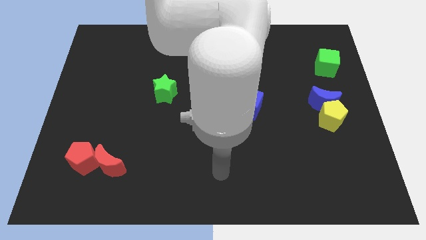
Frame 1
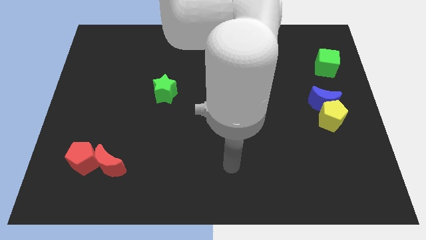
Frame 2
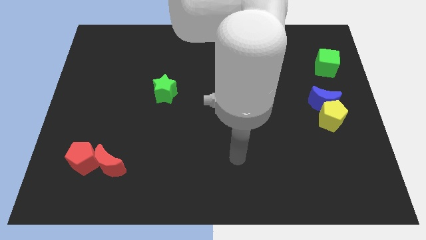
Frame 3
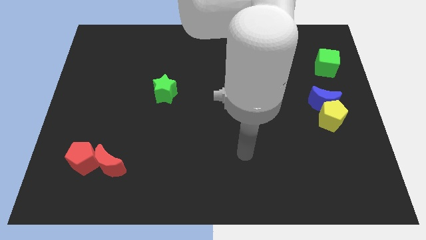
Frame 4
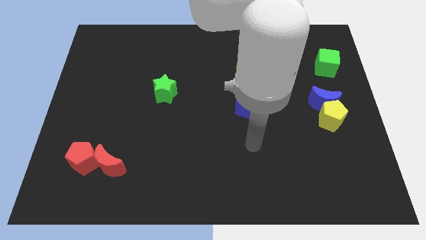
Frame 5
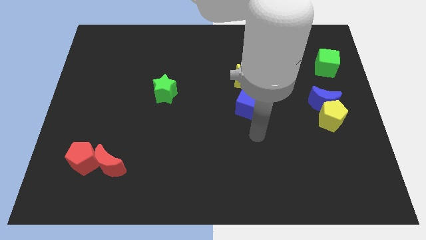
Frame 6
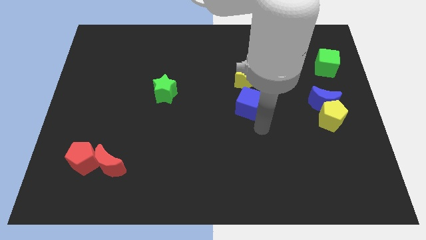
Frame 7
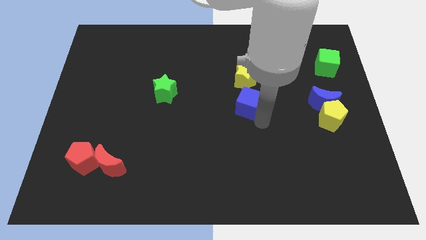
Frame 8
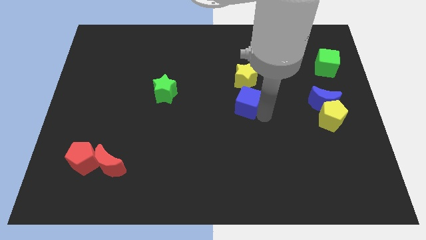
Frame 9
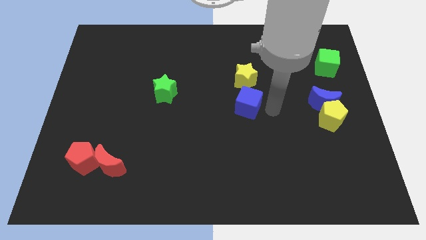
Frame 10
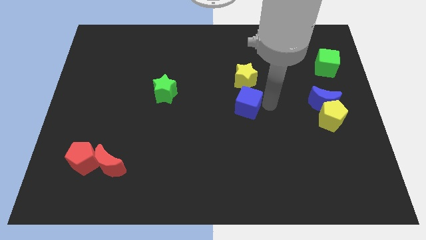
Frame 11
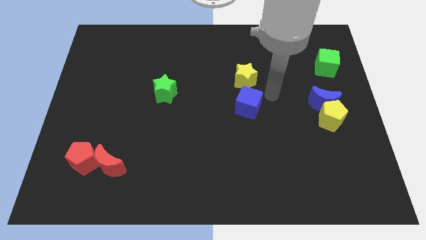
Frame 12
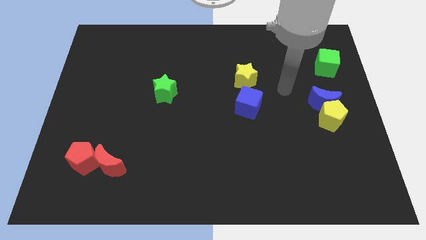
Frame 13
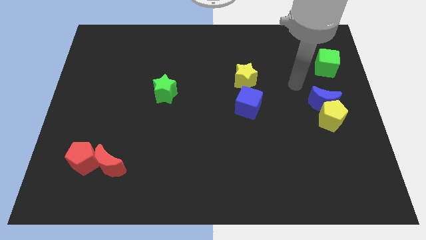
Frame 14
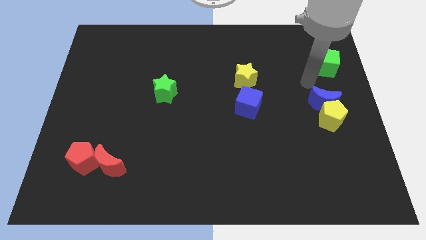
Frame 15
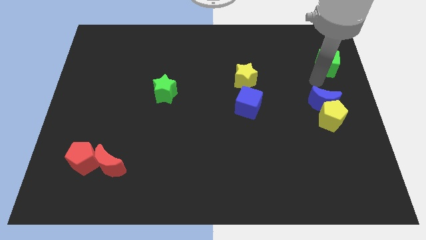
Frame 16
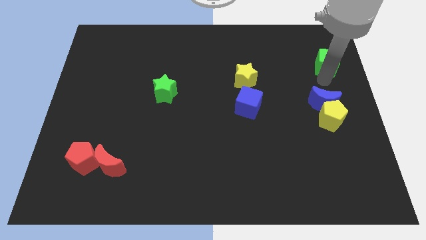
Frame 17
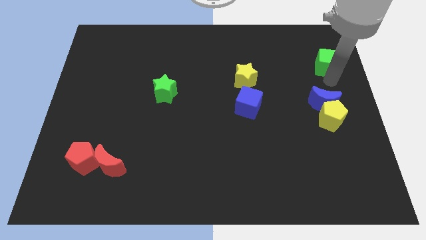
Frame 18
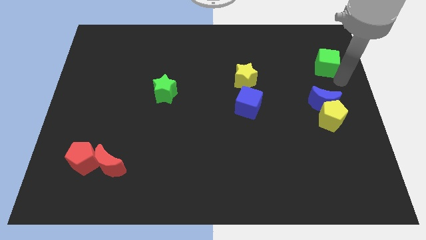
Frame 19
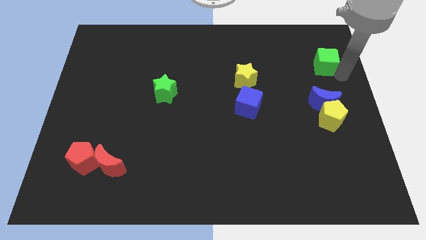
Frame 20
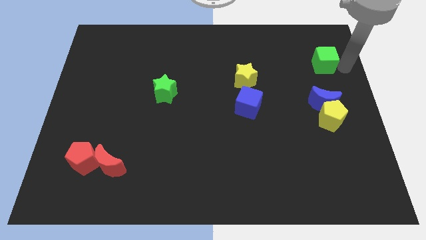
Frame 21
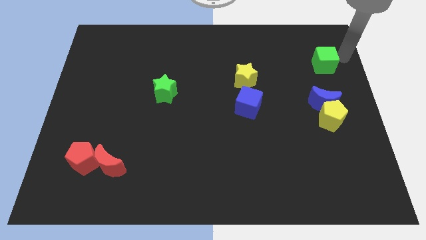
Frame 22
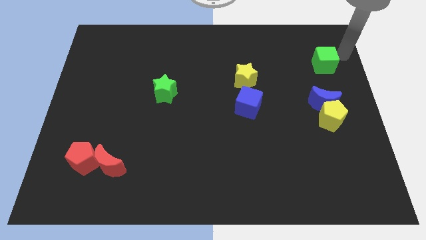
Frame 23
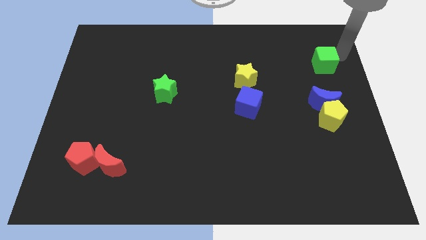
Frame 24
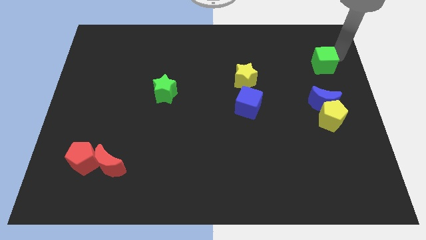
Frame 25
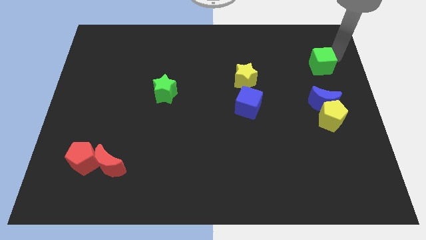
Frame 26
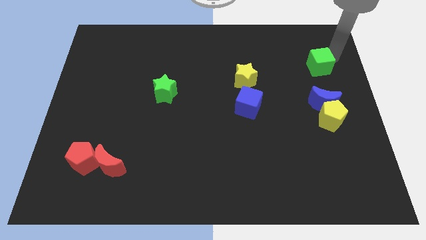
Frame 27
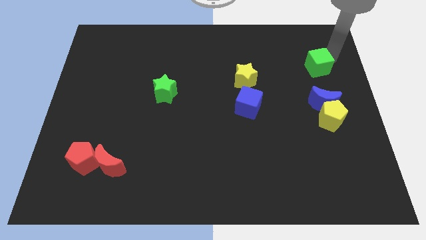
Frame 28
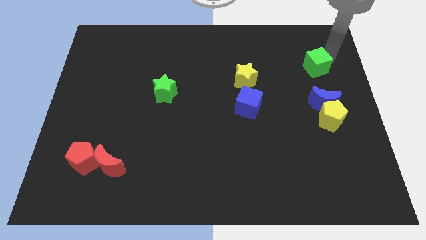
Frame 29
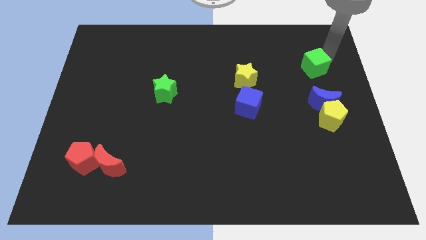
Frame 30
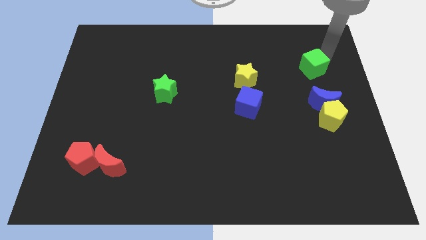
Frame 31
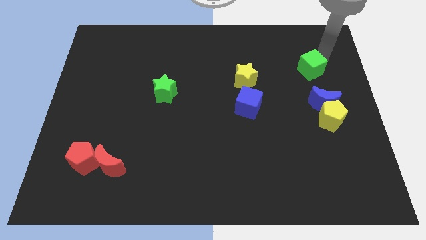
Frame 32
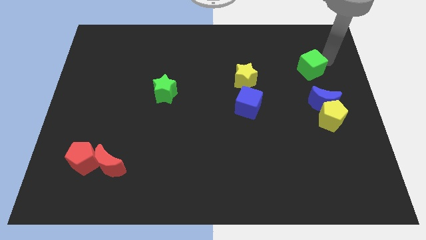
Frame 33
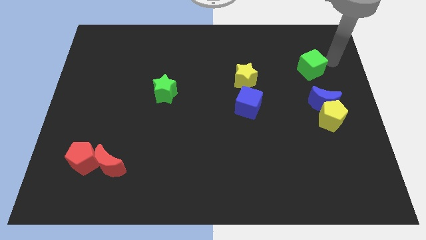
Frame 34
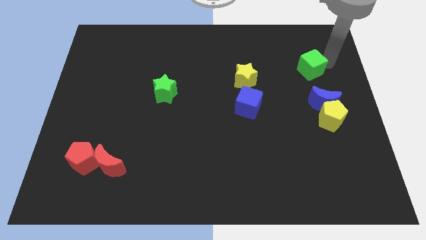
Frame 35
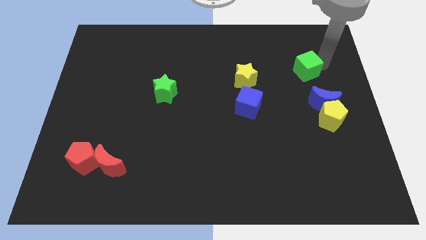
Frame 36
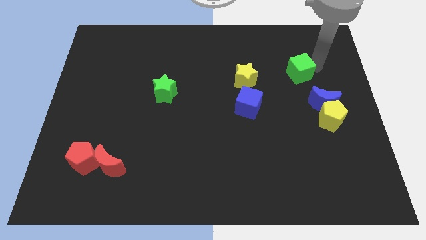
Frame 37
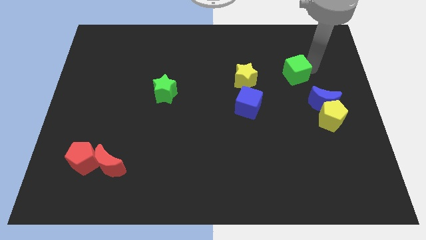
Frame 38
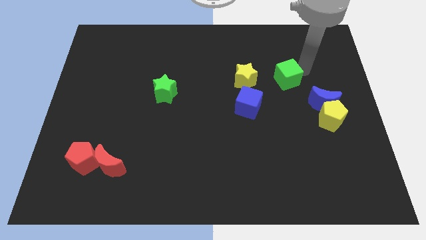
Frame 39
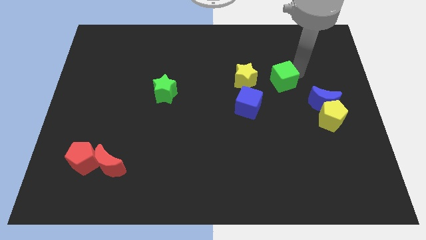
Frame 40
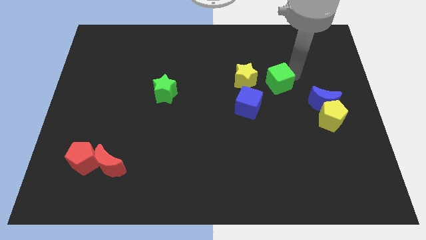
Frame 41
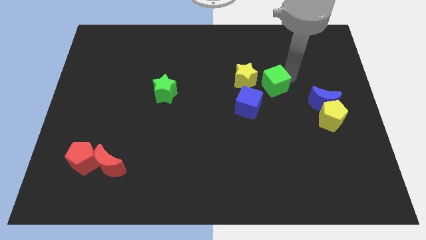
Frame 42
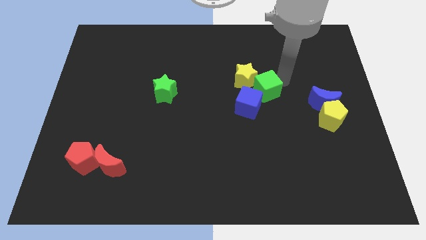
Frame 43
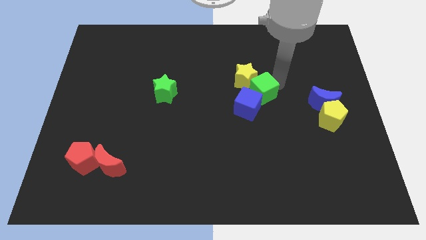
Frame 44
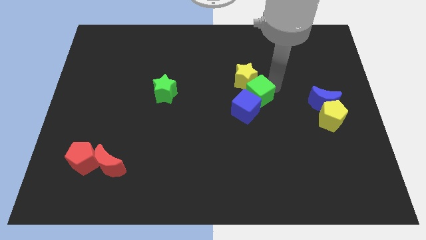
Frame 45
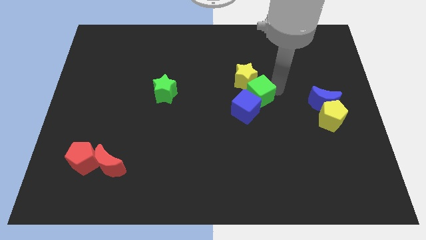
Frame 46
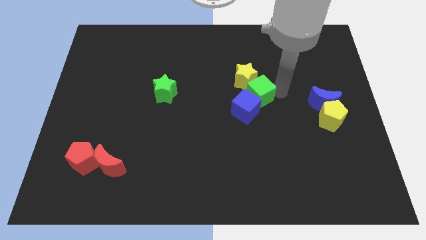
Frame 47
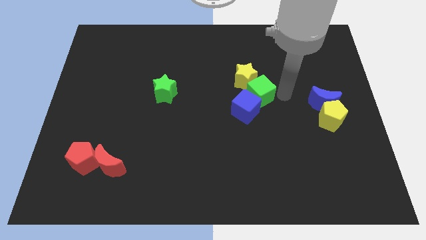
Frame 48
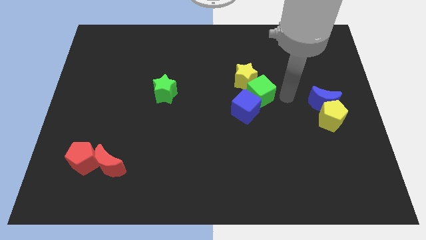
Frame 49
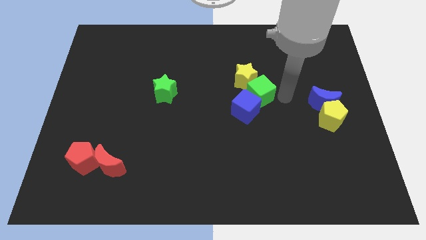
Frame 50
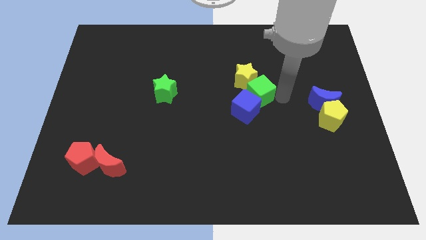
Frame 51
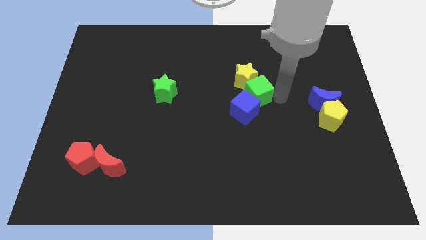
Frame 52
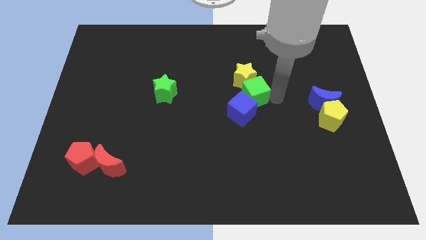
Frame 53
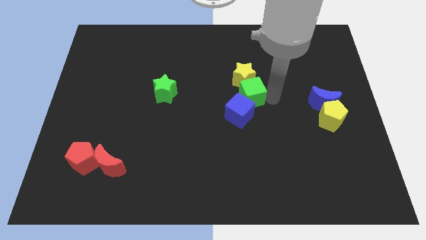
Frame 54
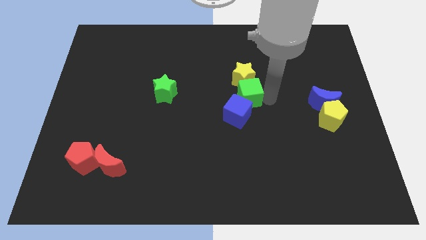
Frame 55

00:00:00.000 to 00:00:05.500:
push the green cube diagonally down and to the left of the yellow star

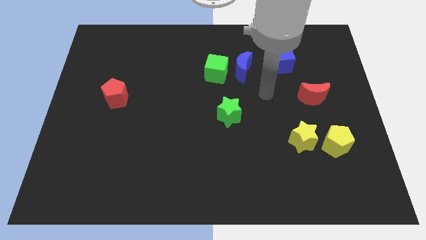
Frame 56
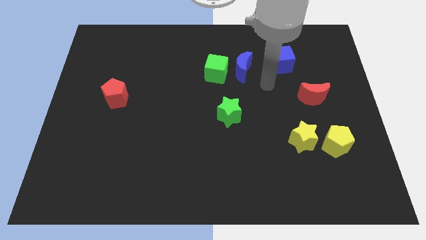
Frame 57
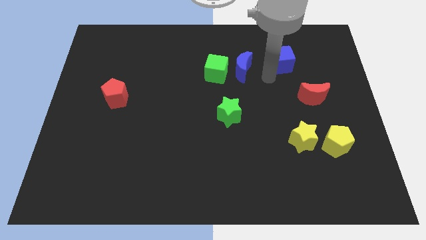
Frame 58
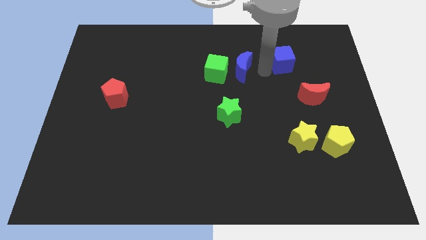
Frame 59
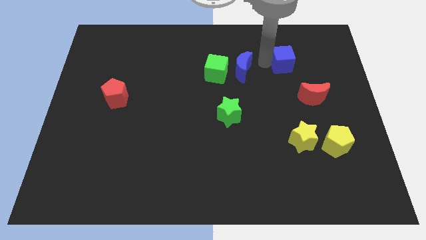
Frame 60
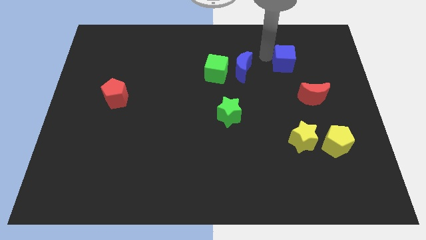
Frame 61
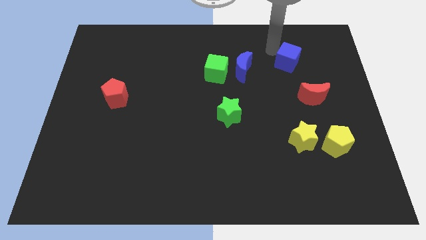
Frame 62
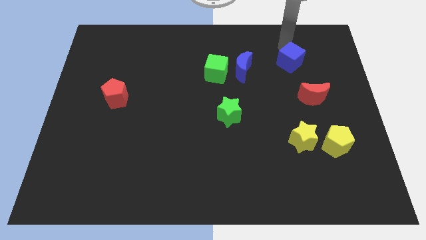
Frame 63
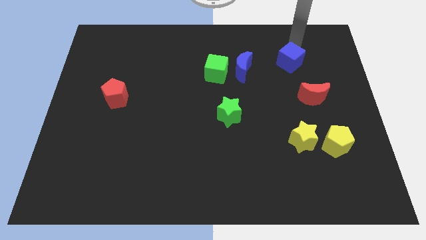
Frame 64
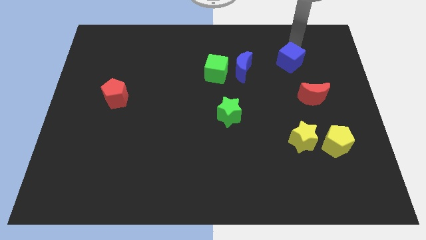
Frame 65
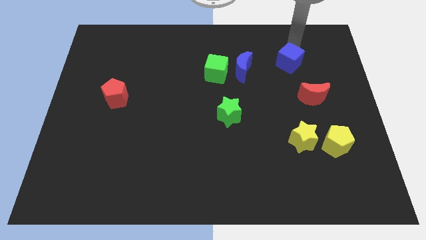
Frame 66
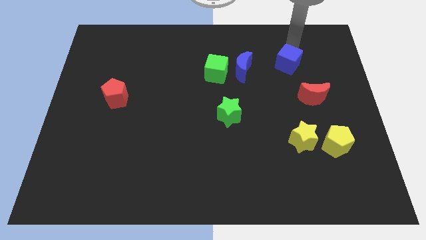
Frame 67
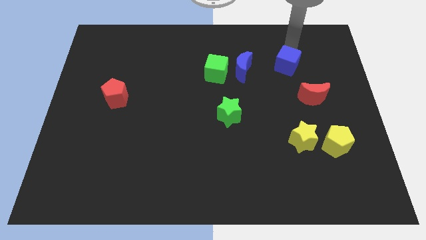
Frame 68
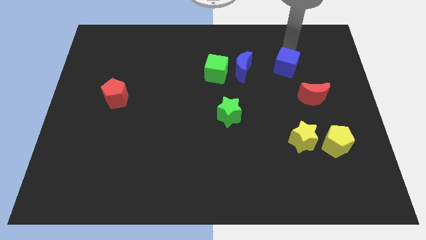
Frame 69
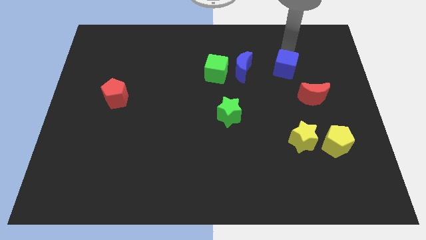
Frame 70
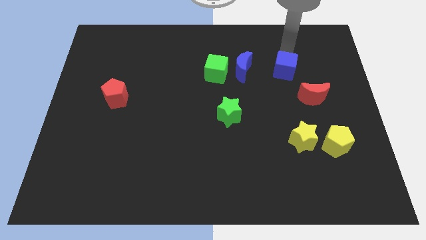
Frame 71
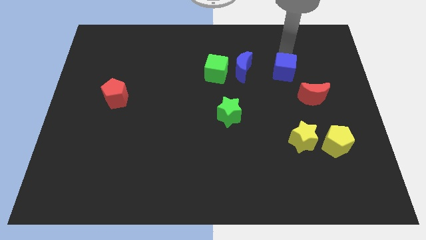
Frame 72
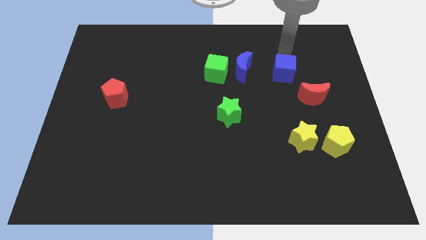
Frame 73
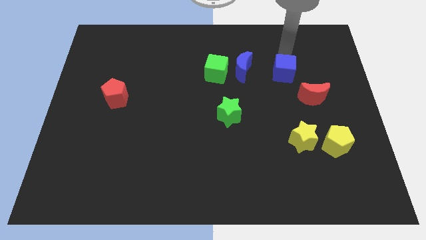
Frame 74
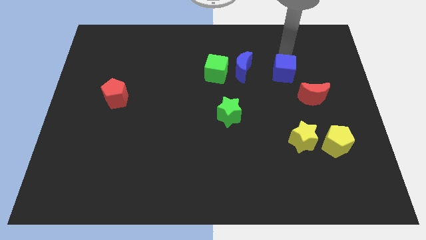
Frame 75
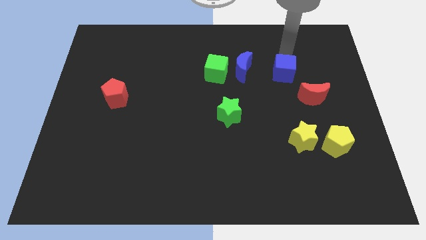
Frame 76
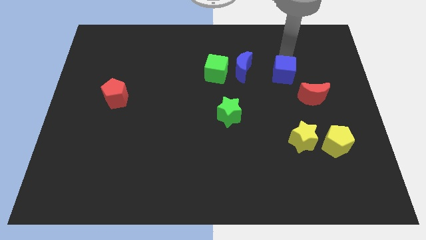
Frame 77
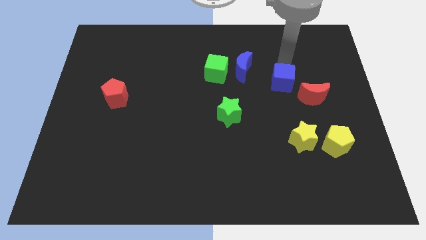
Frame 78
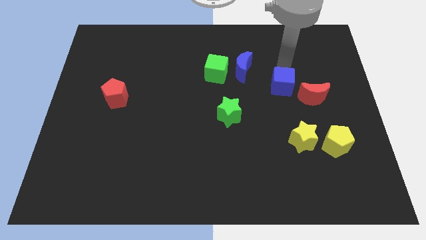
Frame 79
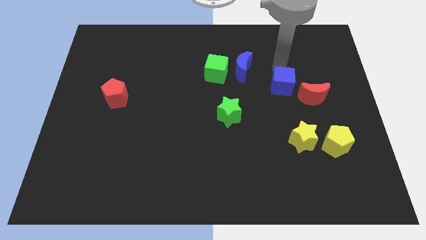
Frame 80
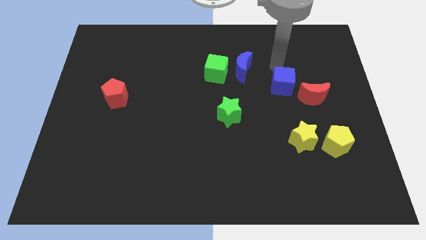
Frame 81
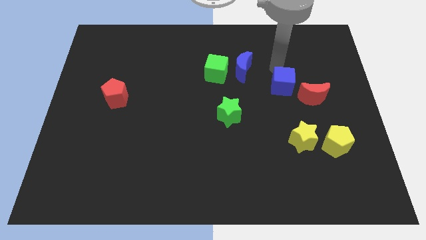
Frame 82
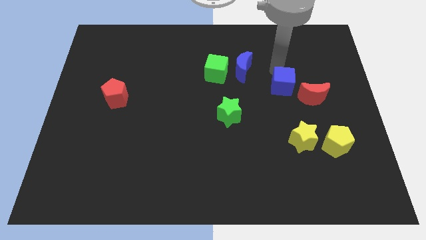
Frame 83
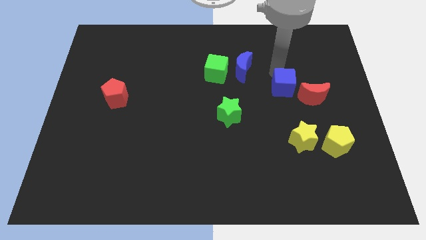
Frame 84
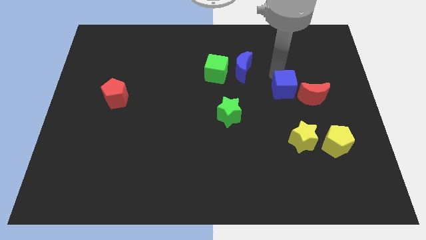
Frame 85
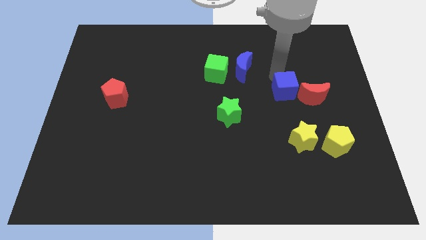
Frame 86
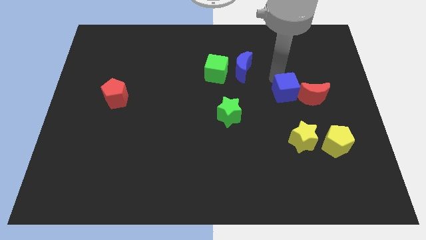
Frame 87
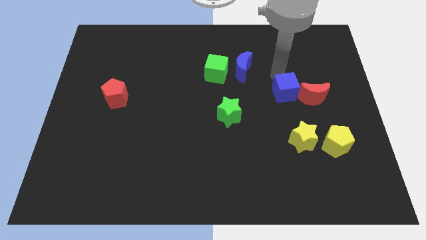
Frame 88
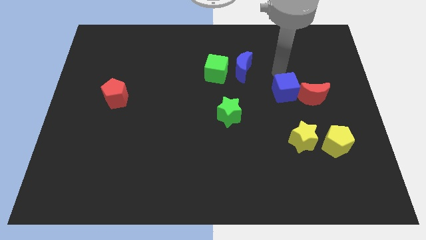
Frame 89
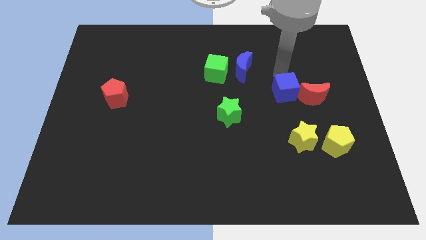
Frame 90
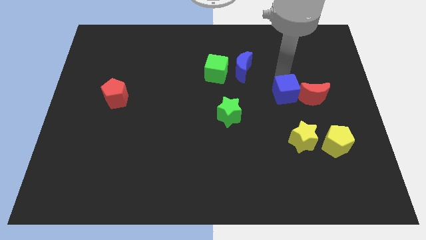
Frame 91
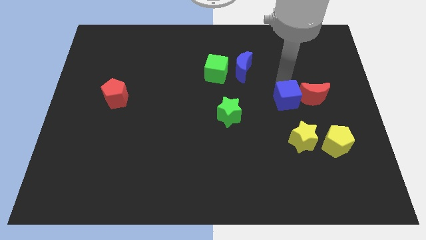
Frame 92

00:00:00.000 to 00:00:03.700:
move the blue cube diagonally down and to the left of the red moon
